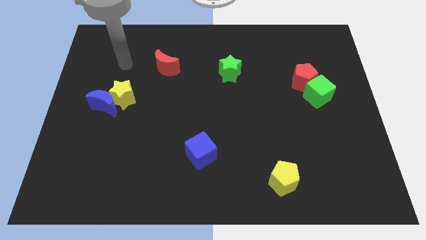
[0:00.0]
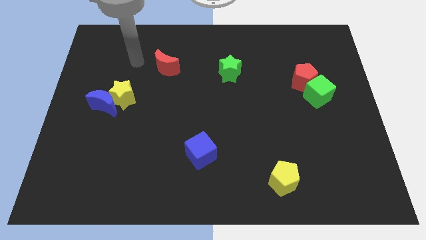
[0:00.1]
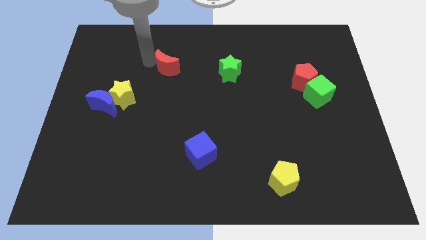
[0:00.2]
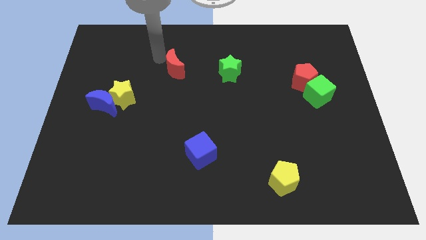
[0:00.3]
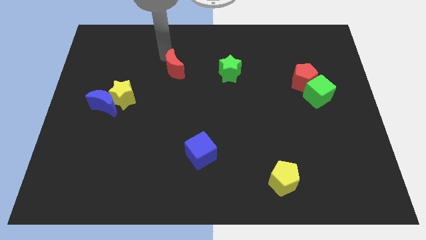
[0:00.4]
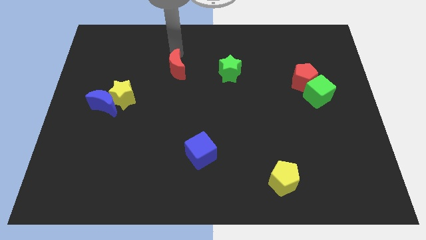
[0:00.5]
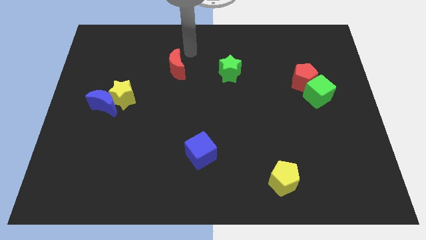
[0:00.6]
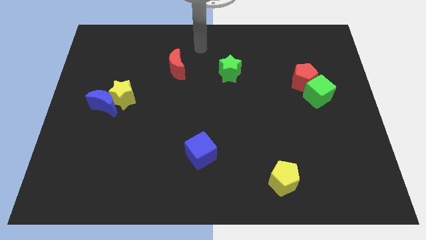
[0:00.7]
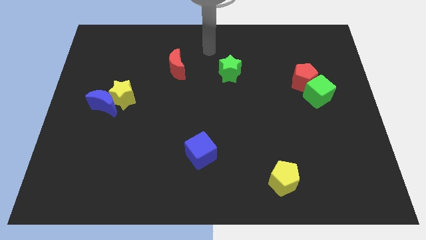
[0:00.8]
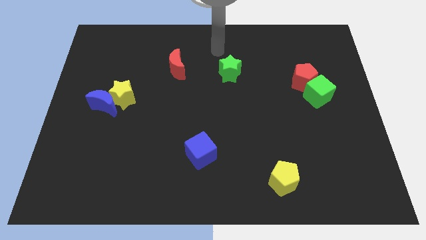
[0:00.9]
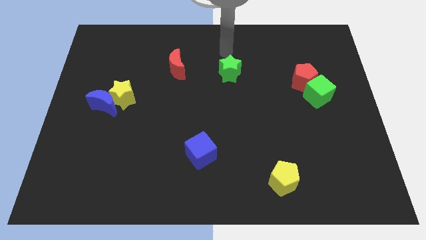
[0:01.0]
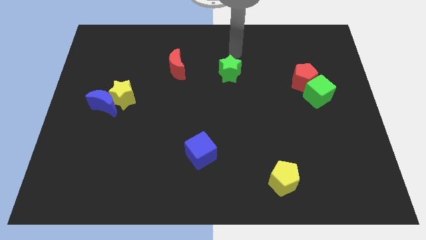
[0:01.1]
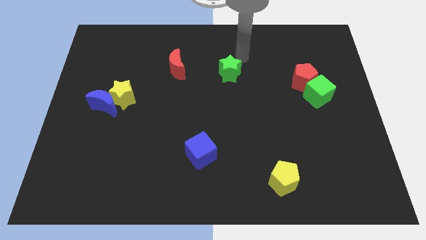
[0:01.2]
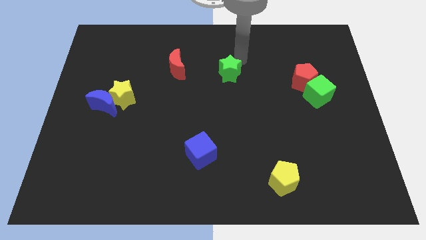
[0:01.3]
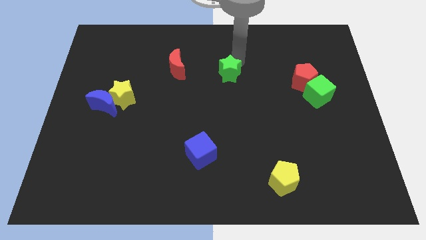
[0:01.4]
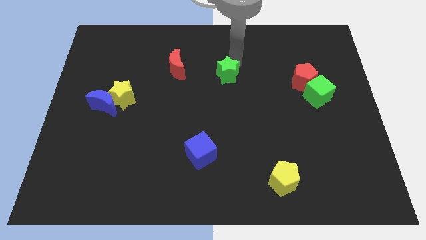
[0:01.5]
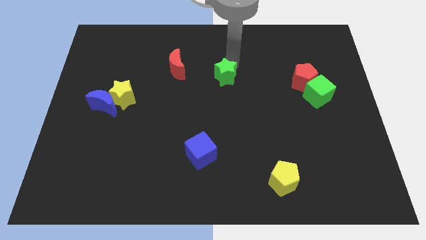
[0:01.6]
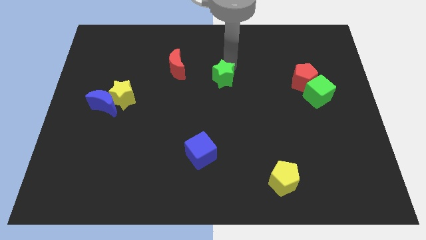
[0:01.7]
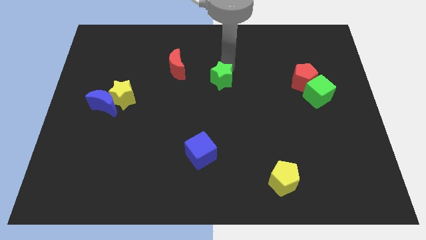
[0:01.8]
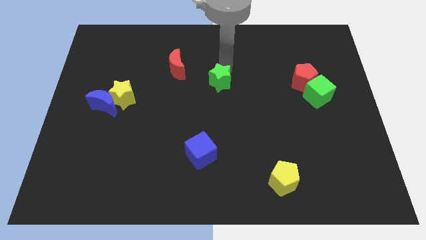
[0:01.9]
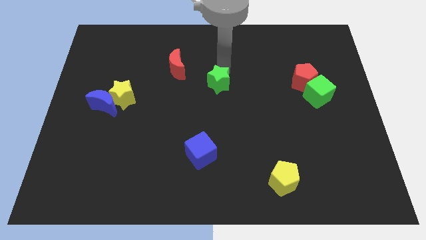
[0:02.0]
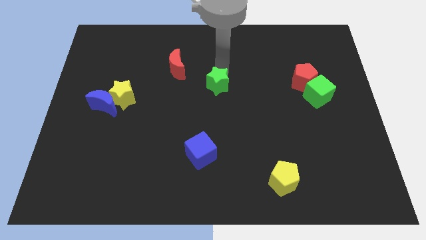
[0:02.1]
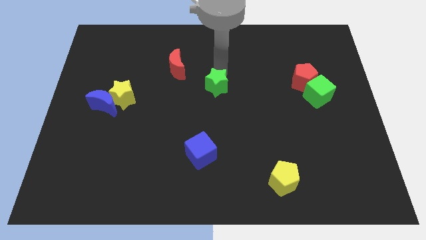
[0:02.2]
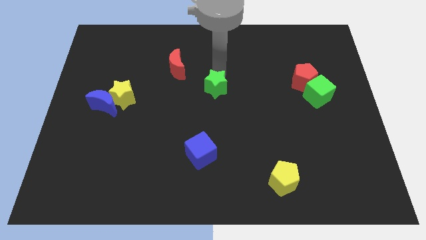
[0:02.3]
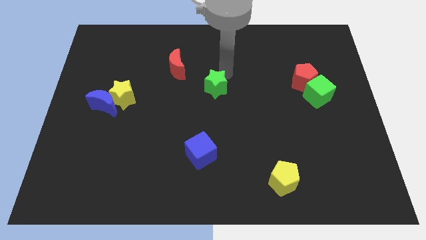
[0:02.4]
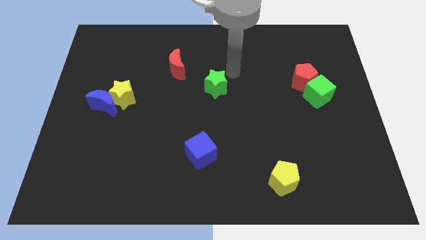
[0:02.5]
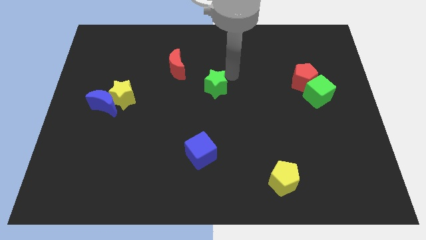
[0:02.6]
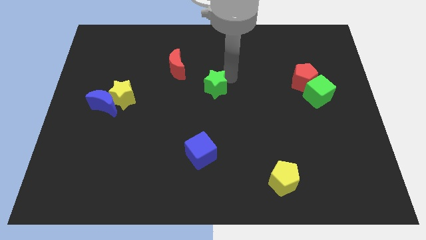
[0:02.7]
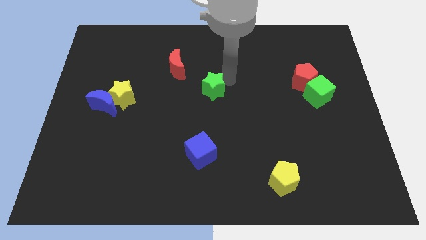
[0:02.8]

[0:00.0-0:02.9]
slightly push the green star diagonally downwards and to the left

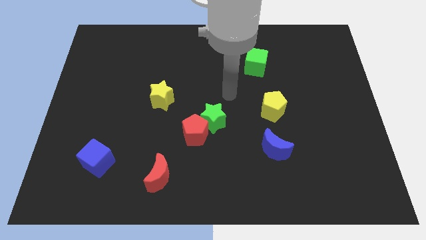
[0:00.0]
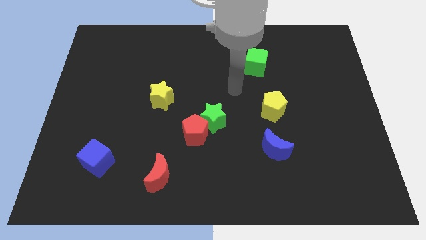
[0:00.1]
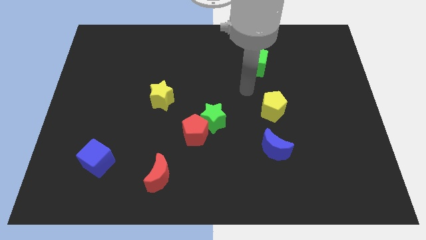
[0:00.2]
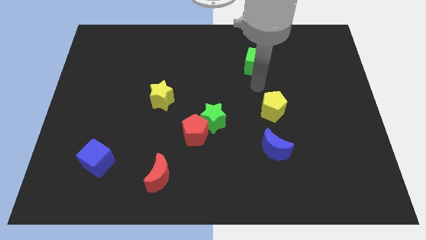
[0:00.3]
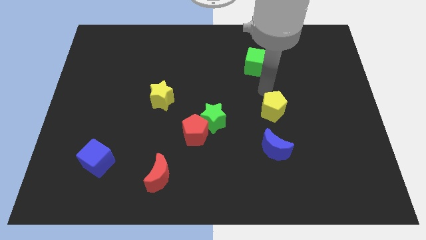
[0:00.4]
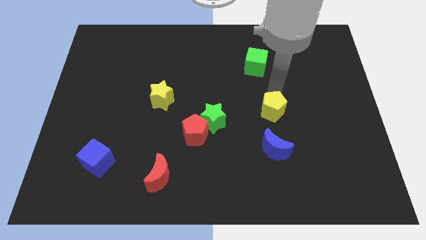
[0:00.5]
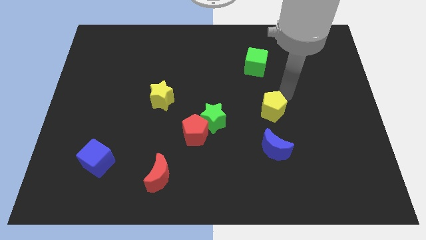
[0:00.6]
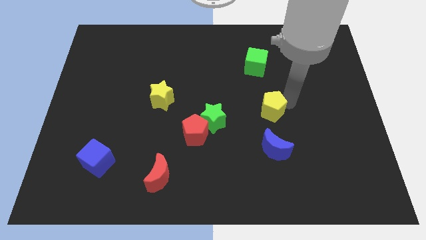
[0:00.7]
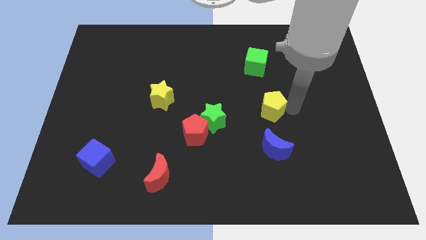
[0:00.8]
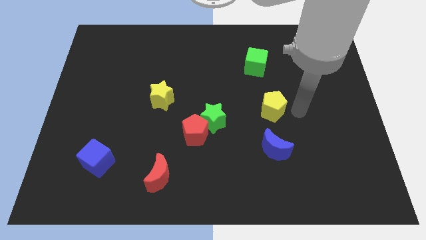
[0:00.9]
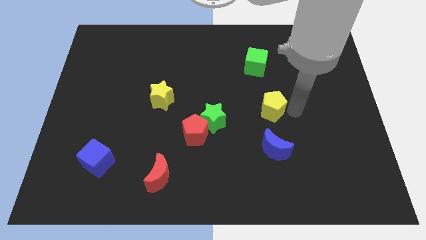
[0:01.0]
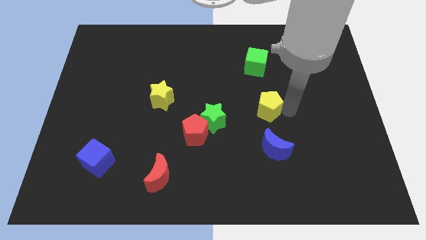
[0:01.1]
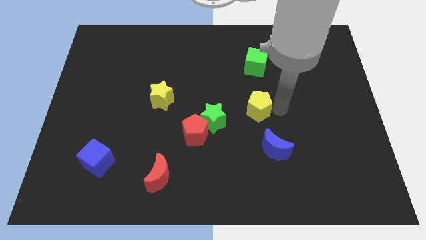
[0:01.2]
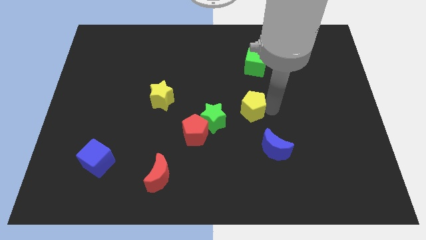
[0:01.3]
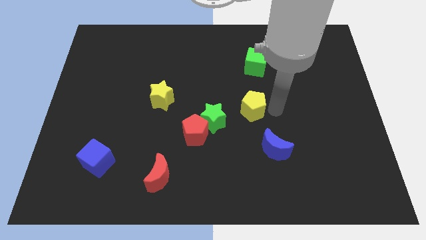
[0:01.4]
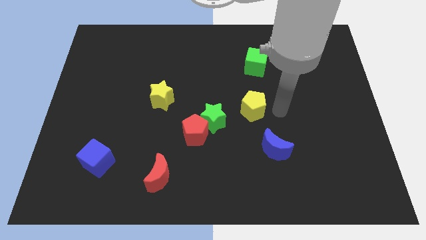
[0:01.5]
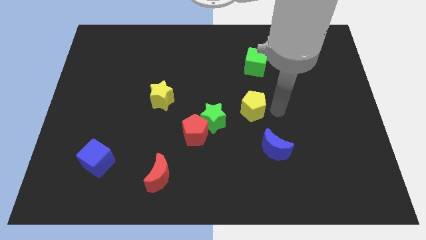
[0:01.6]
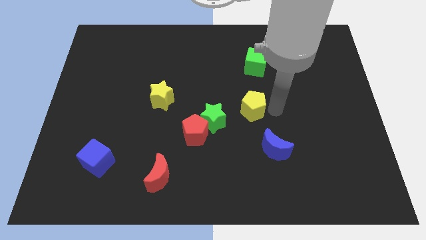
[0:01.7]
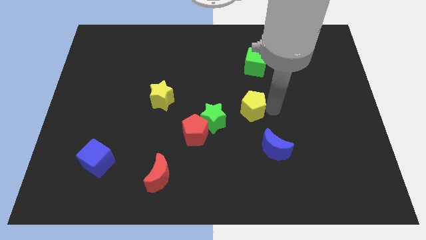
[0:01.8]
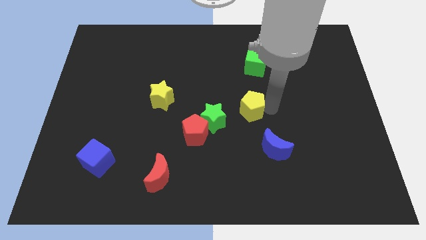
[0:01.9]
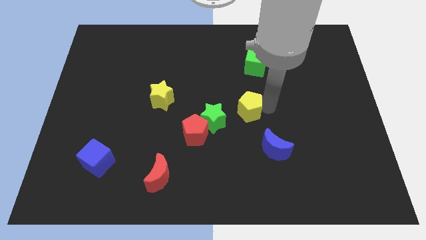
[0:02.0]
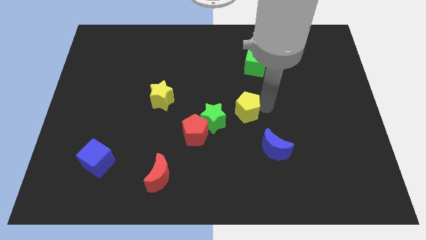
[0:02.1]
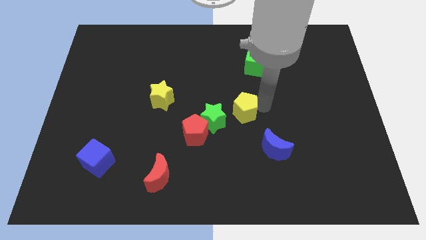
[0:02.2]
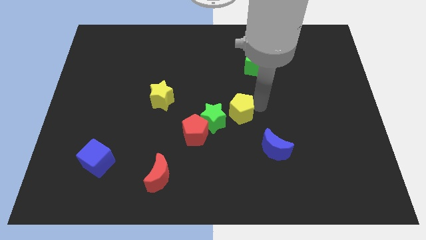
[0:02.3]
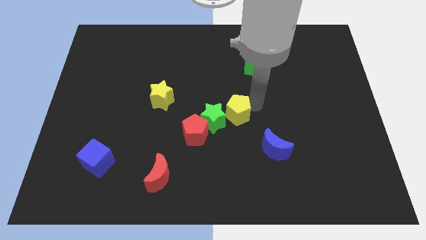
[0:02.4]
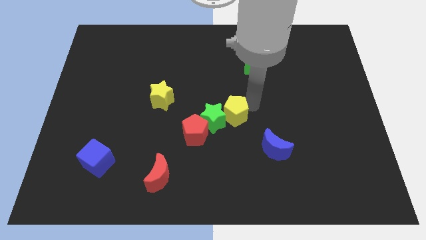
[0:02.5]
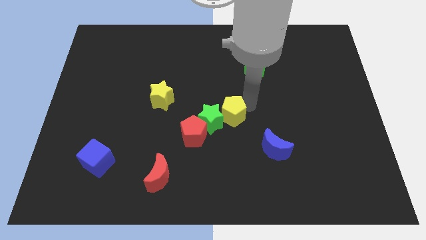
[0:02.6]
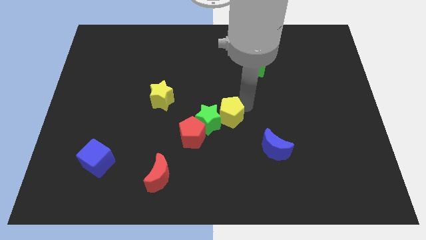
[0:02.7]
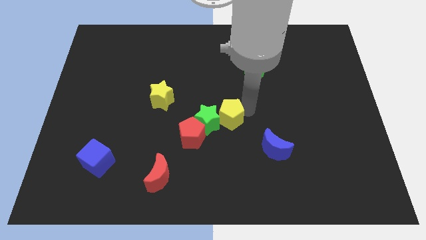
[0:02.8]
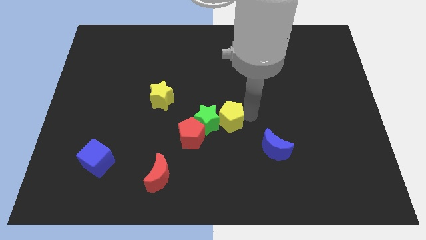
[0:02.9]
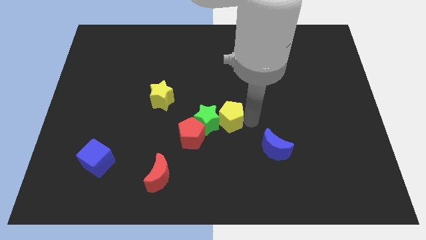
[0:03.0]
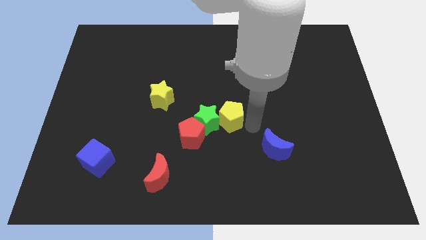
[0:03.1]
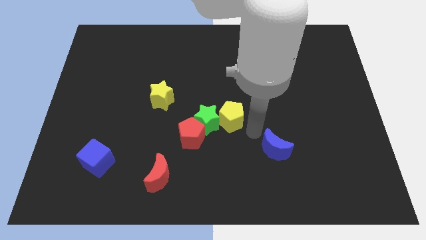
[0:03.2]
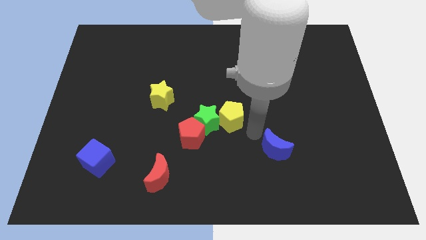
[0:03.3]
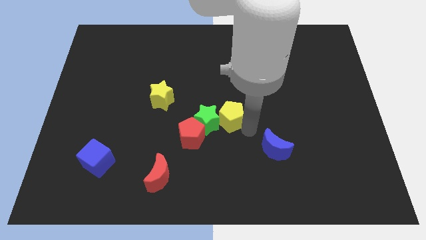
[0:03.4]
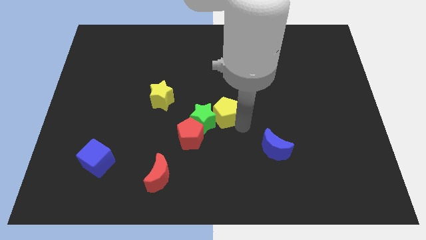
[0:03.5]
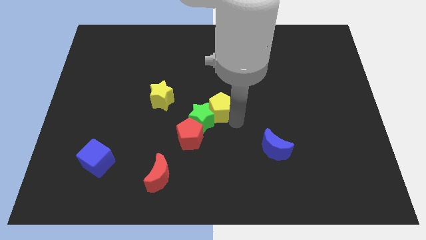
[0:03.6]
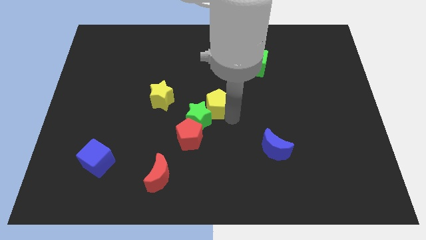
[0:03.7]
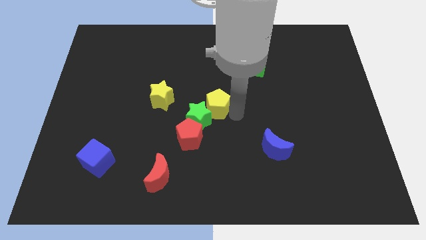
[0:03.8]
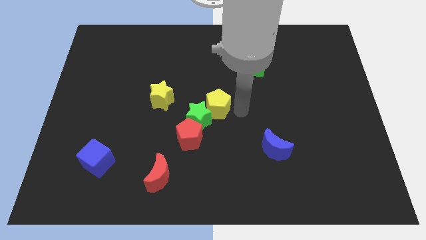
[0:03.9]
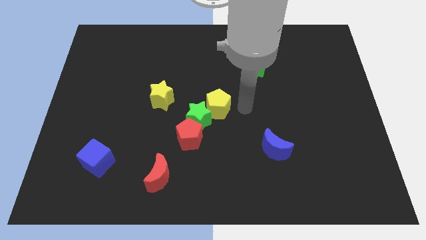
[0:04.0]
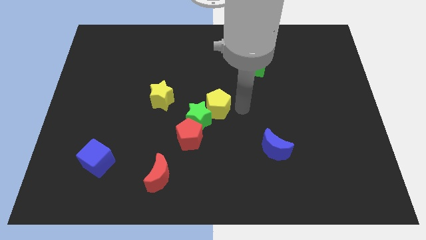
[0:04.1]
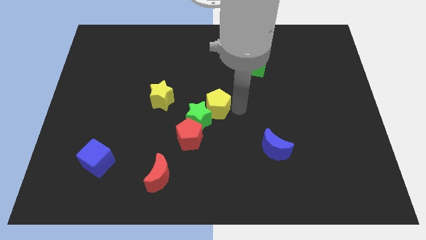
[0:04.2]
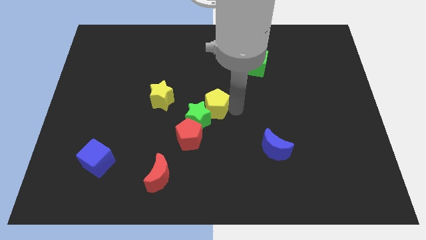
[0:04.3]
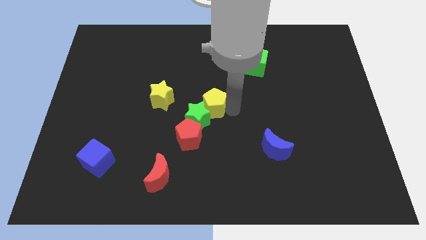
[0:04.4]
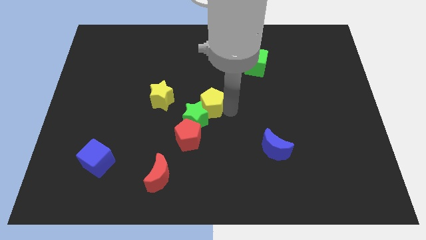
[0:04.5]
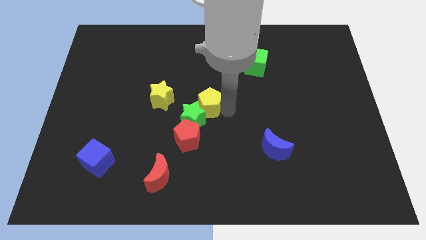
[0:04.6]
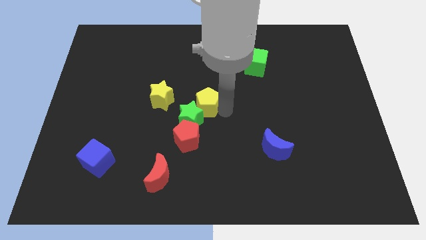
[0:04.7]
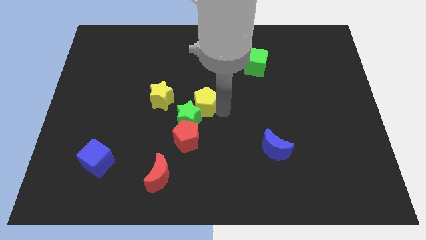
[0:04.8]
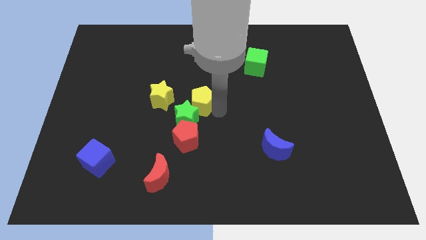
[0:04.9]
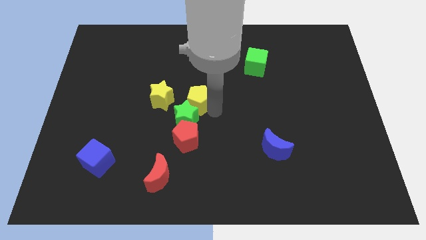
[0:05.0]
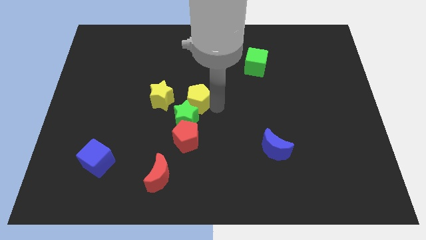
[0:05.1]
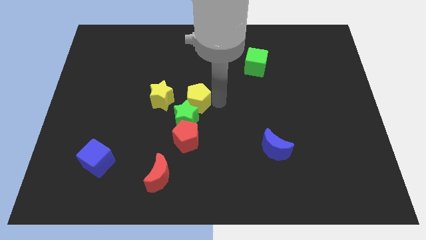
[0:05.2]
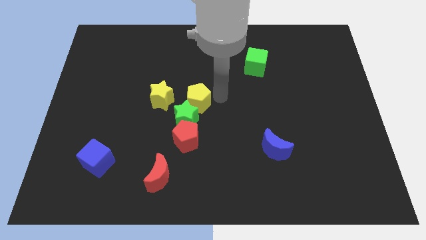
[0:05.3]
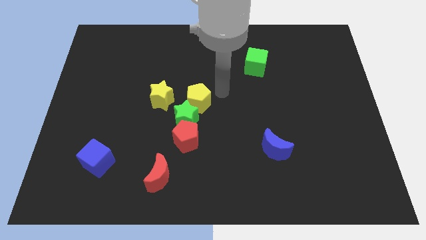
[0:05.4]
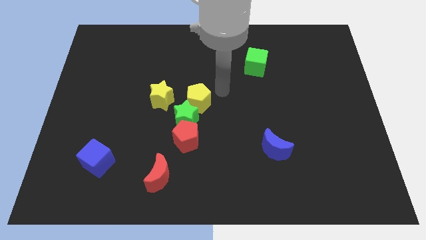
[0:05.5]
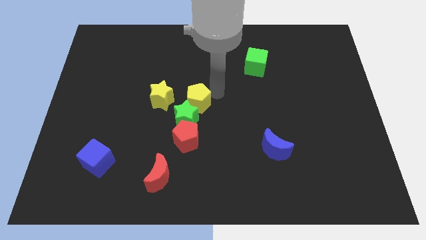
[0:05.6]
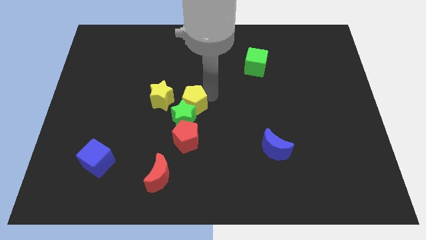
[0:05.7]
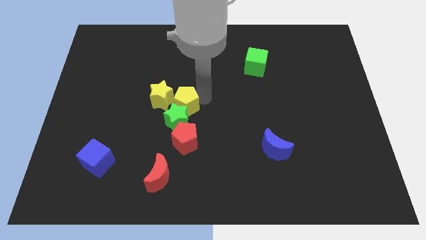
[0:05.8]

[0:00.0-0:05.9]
push the yellow pentagon to the left
